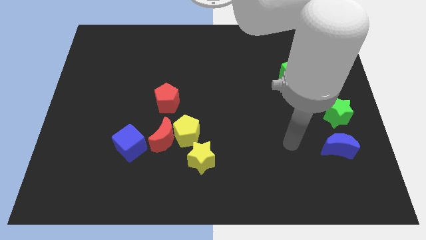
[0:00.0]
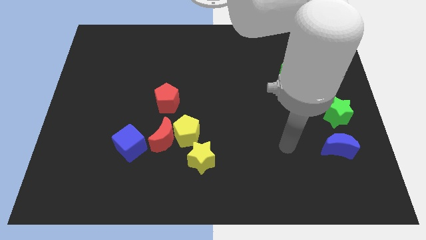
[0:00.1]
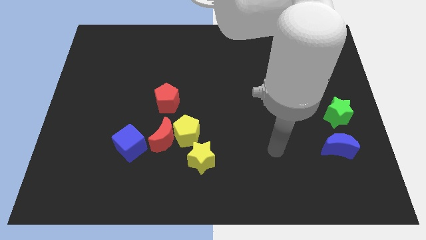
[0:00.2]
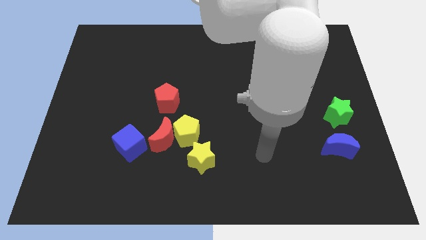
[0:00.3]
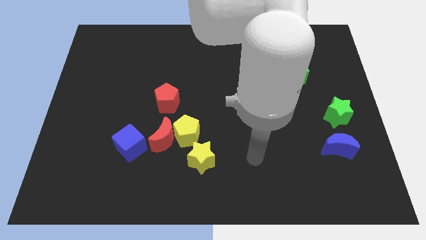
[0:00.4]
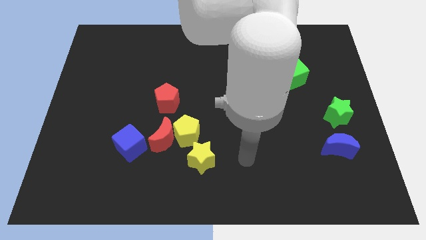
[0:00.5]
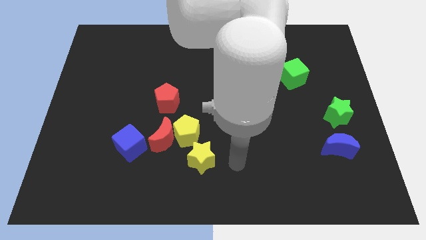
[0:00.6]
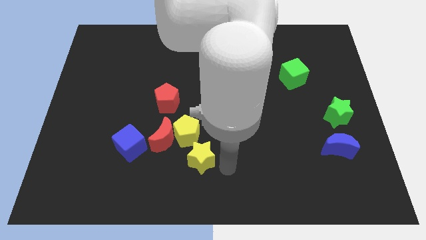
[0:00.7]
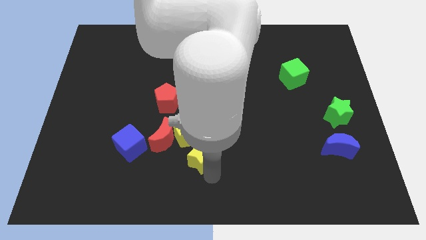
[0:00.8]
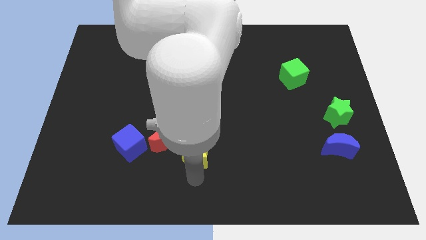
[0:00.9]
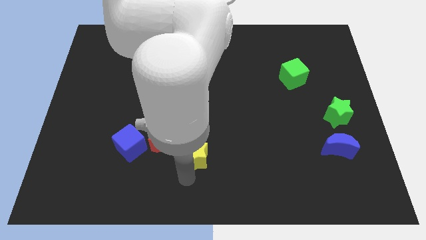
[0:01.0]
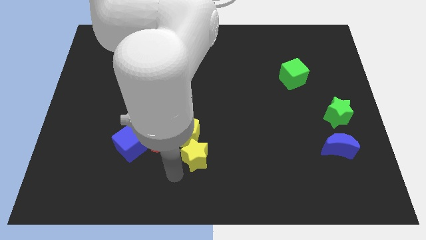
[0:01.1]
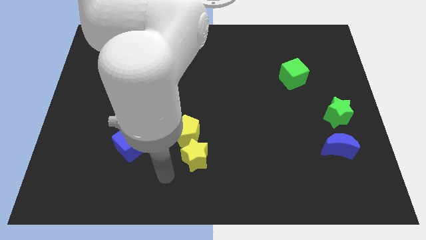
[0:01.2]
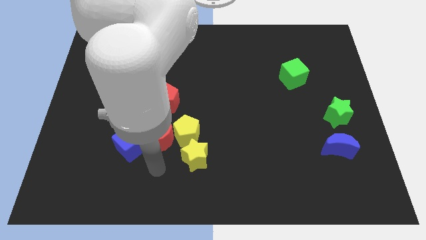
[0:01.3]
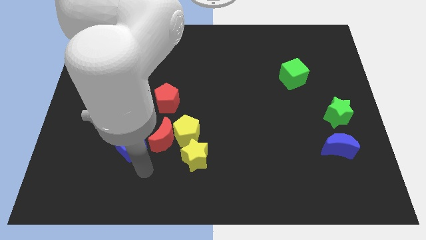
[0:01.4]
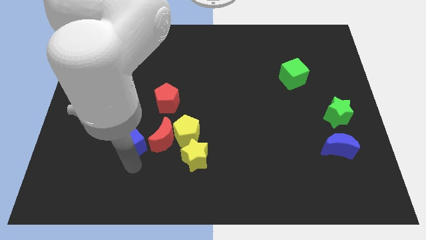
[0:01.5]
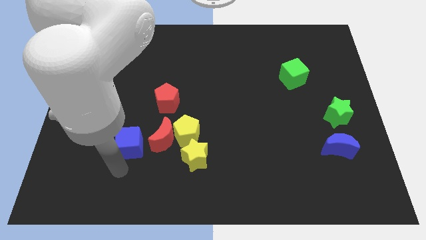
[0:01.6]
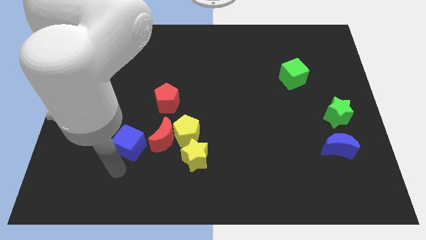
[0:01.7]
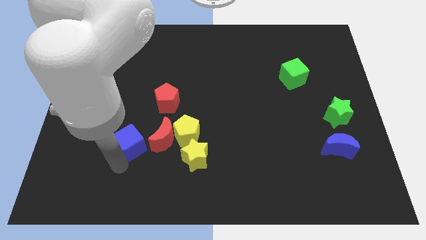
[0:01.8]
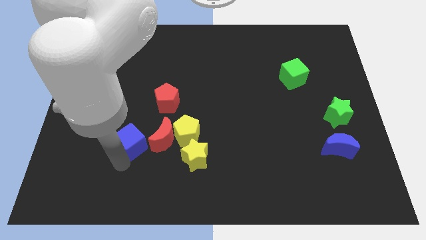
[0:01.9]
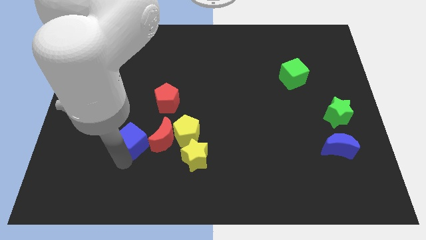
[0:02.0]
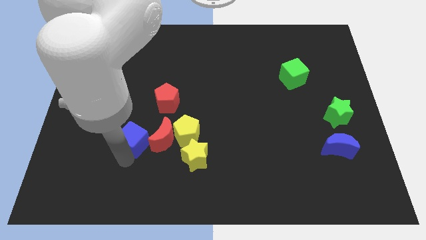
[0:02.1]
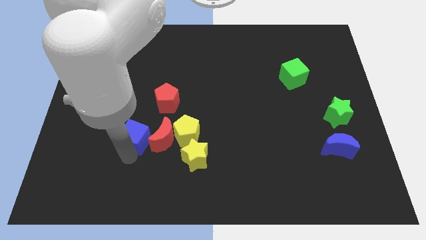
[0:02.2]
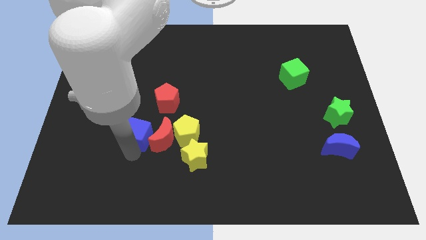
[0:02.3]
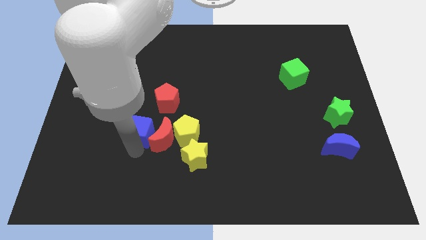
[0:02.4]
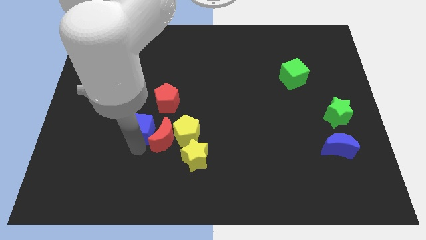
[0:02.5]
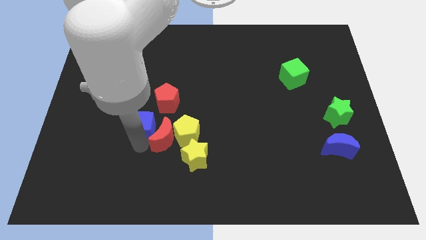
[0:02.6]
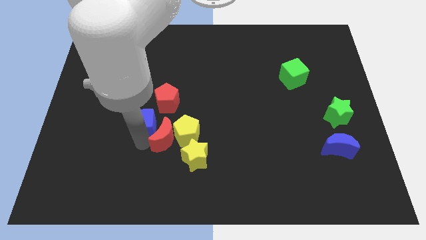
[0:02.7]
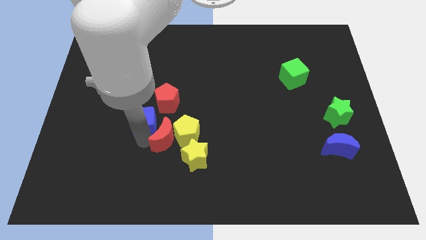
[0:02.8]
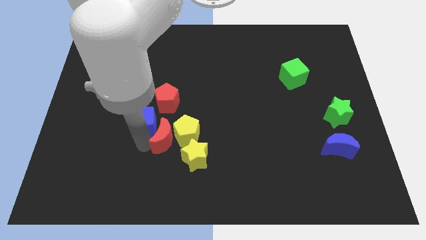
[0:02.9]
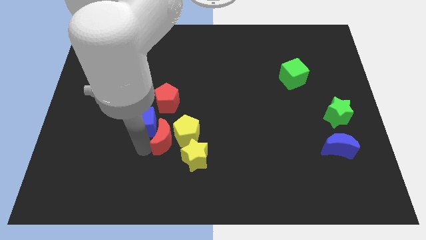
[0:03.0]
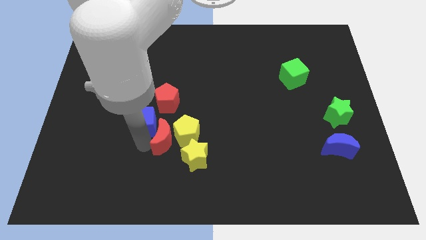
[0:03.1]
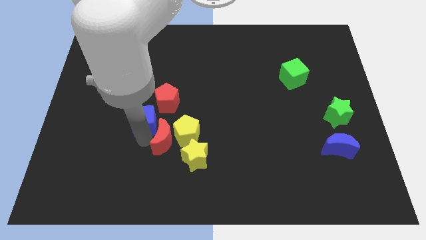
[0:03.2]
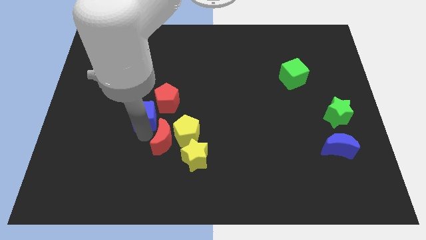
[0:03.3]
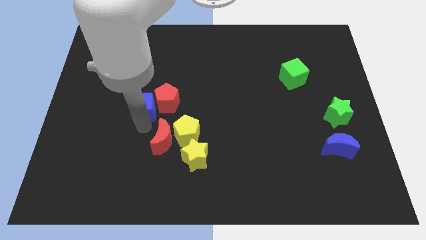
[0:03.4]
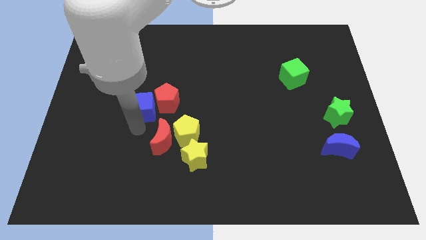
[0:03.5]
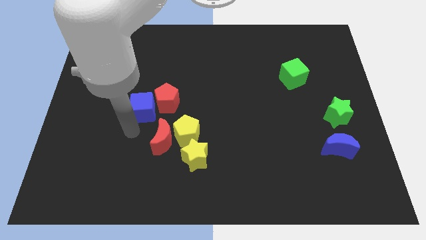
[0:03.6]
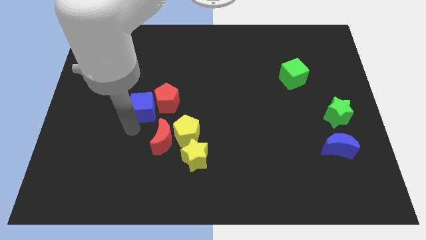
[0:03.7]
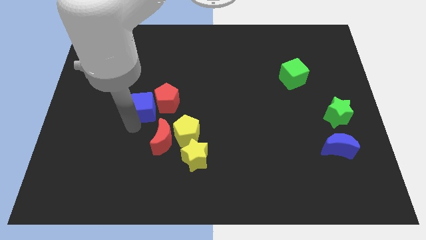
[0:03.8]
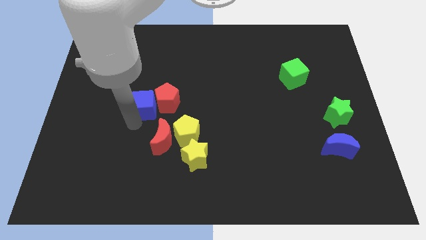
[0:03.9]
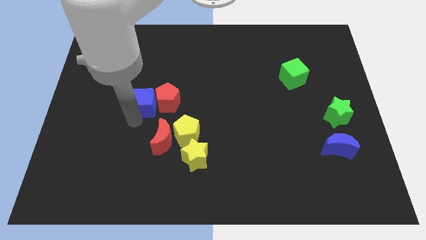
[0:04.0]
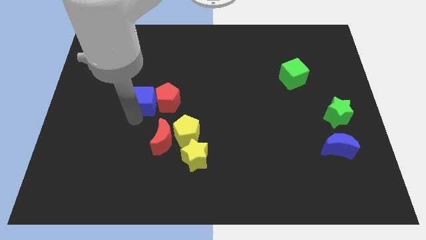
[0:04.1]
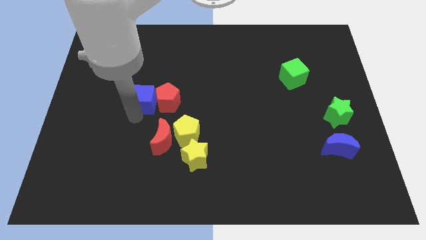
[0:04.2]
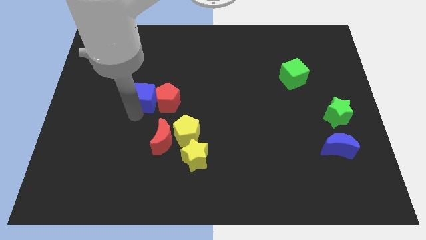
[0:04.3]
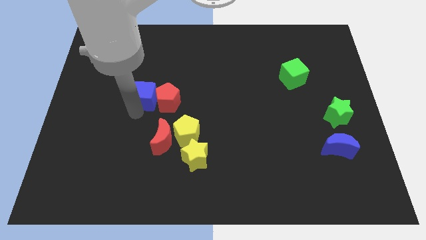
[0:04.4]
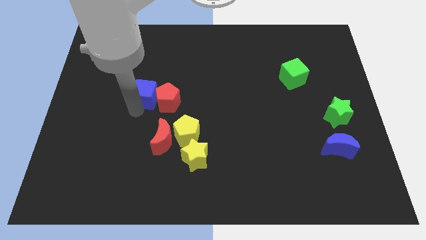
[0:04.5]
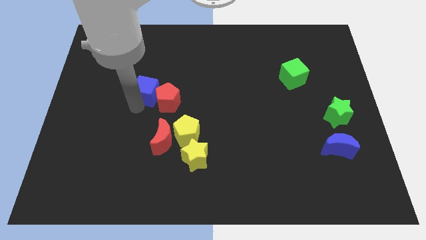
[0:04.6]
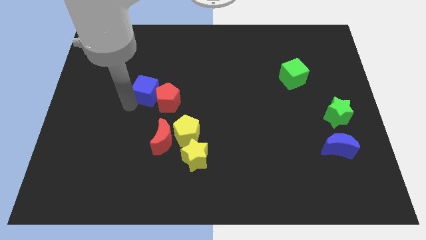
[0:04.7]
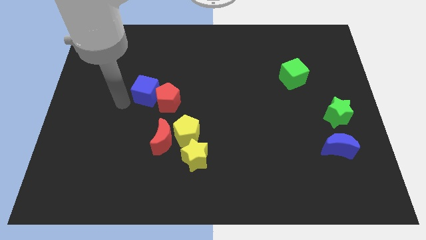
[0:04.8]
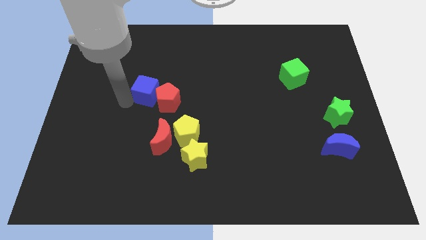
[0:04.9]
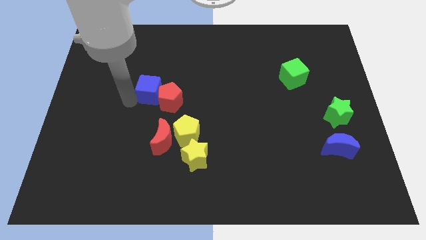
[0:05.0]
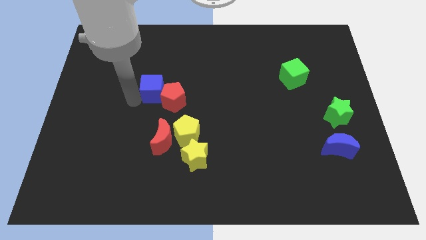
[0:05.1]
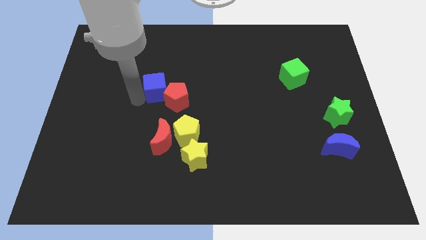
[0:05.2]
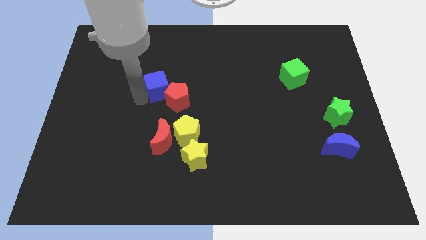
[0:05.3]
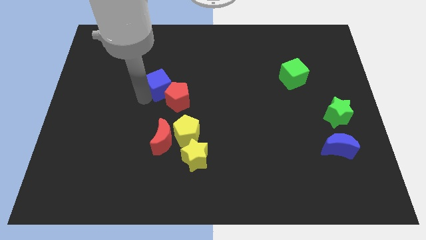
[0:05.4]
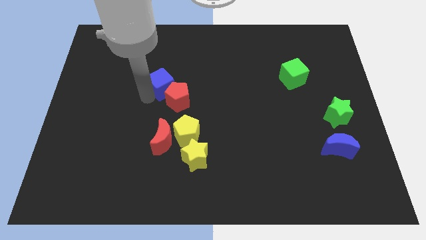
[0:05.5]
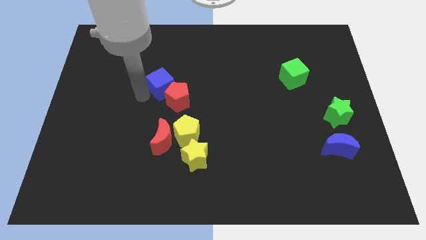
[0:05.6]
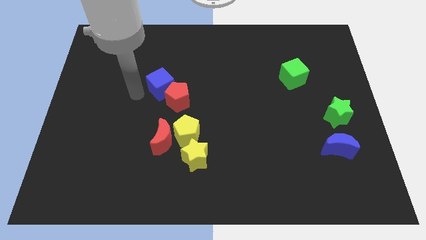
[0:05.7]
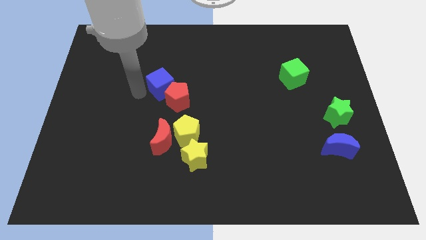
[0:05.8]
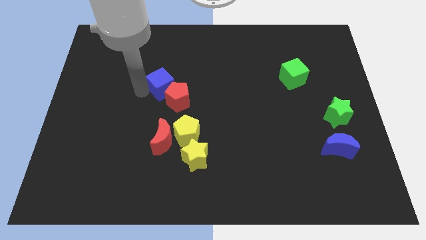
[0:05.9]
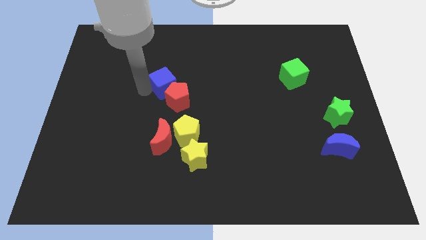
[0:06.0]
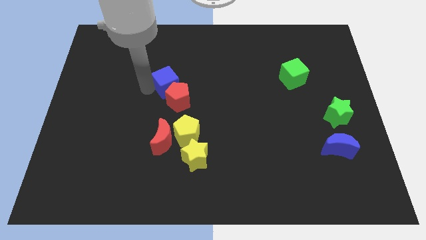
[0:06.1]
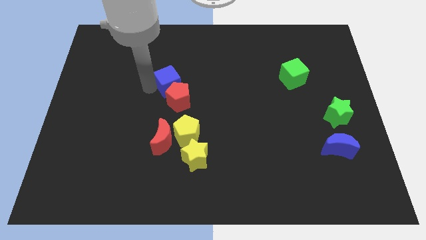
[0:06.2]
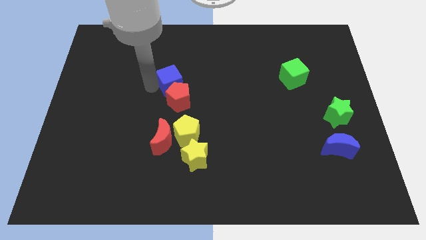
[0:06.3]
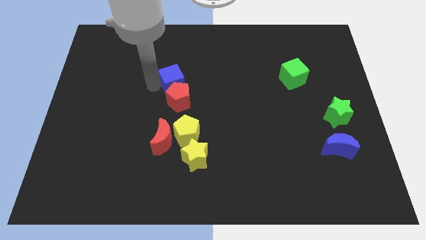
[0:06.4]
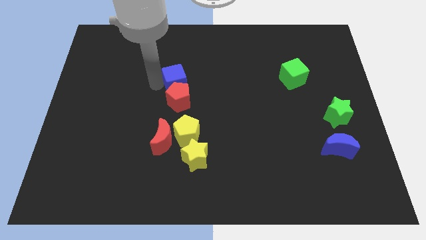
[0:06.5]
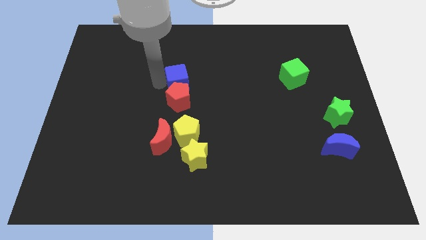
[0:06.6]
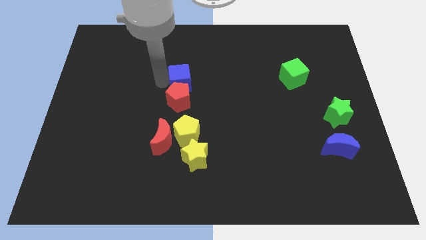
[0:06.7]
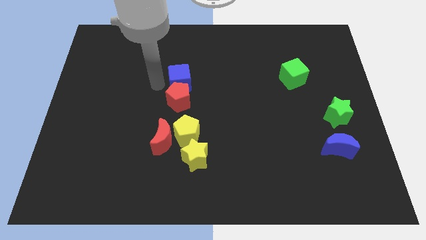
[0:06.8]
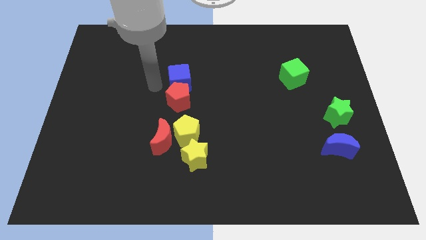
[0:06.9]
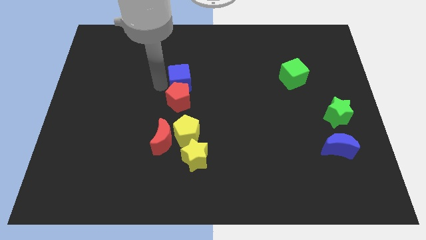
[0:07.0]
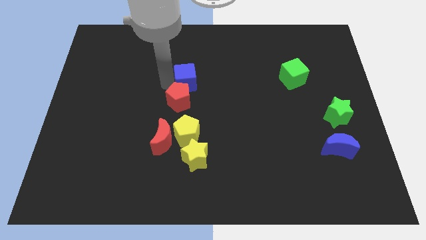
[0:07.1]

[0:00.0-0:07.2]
push the blue cube upwards and right diagonally

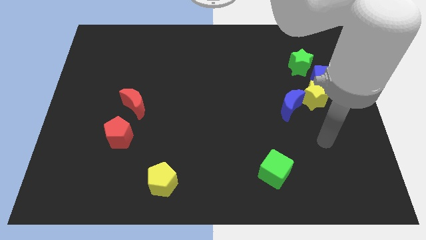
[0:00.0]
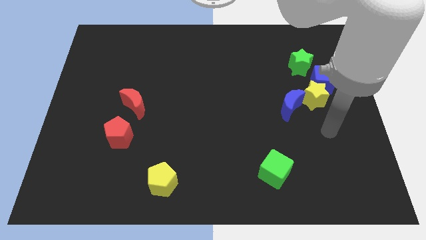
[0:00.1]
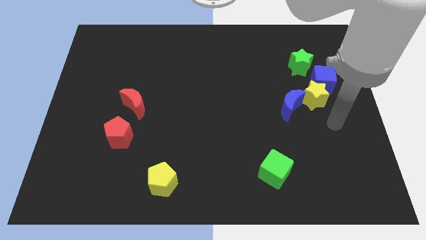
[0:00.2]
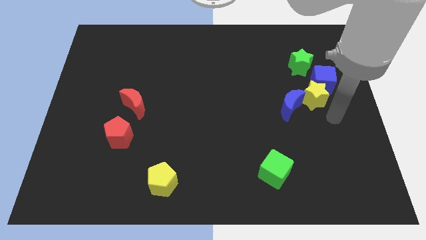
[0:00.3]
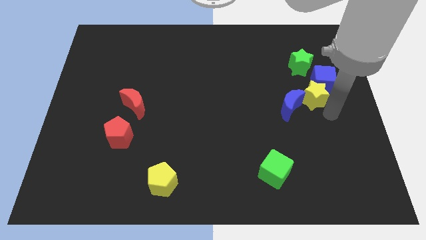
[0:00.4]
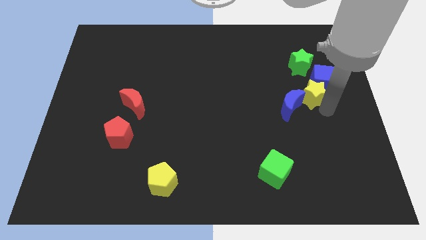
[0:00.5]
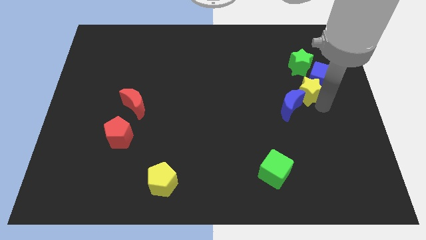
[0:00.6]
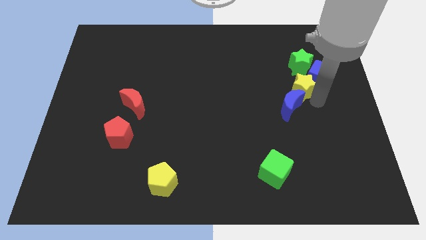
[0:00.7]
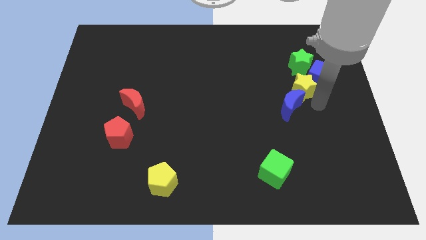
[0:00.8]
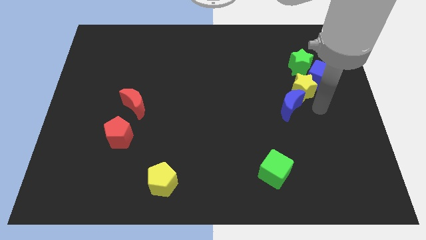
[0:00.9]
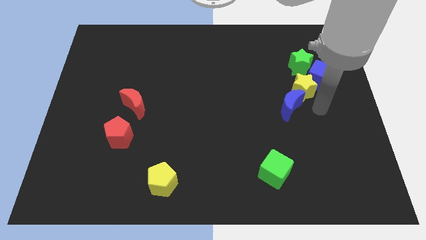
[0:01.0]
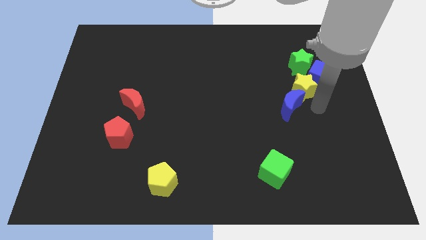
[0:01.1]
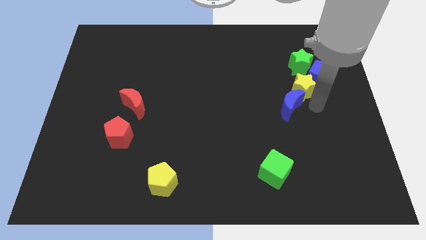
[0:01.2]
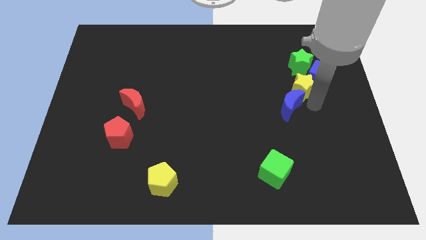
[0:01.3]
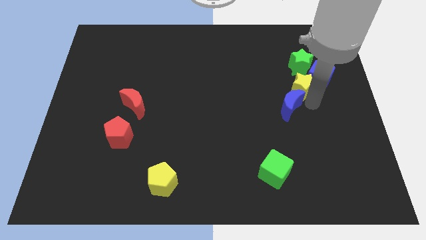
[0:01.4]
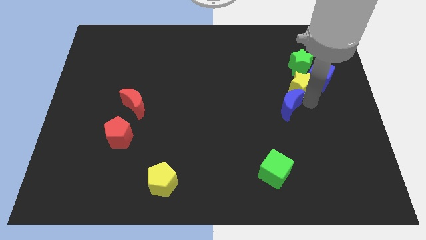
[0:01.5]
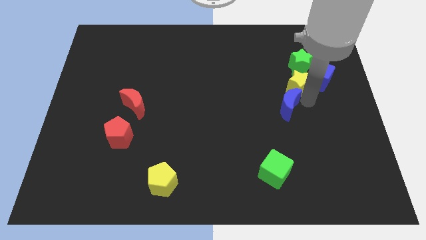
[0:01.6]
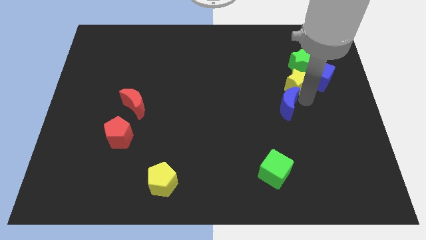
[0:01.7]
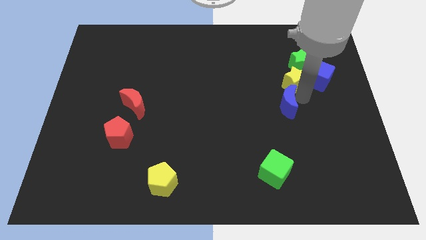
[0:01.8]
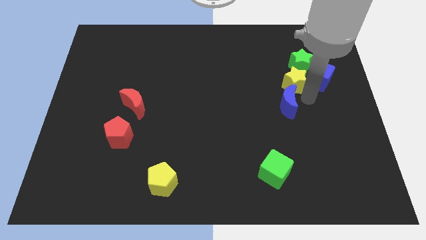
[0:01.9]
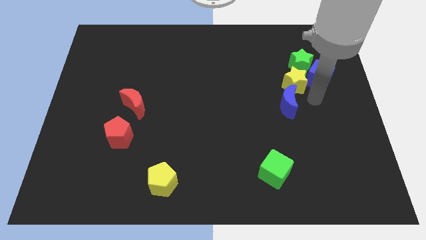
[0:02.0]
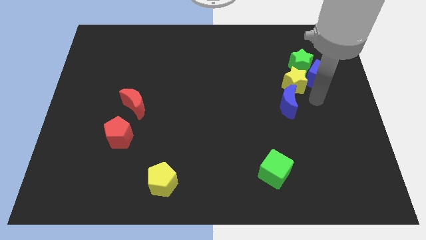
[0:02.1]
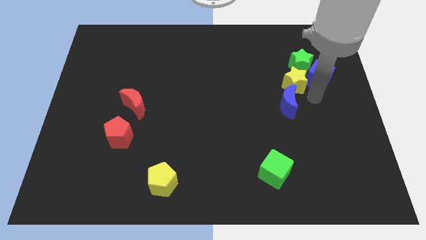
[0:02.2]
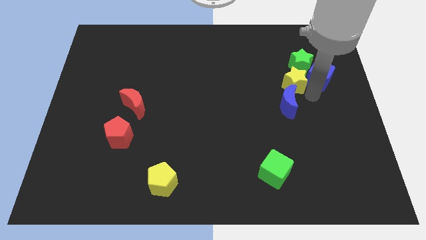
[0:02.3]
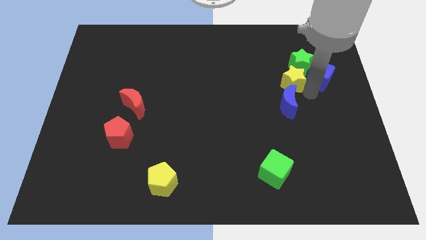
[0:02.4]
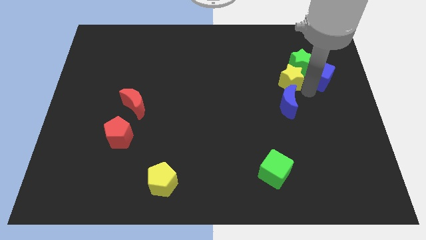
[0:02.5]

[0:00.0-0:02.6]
slightly slide the yellow star diagonally up and left
